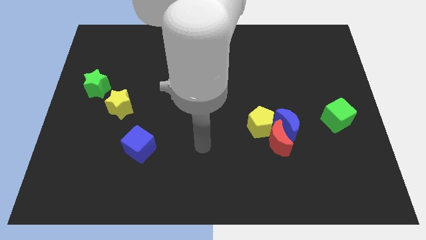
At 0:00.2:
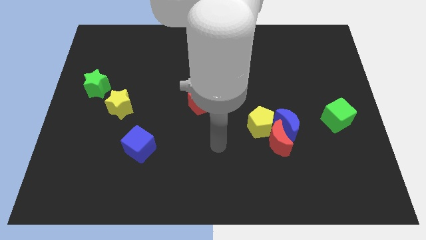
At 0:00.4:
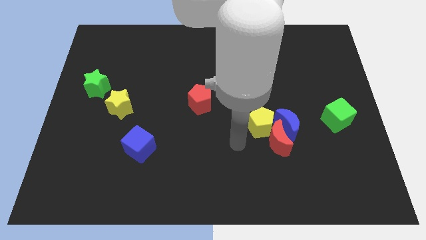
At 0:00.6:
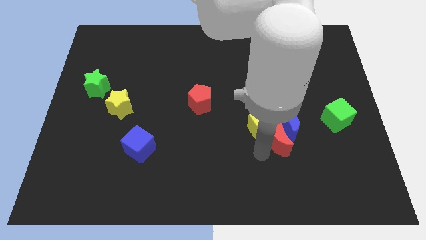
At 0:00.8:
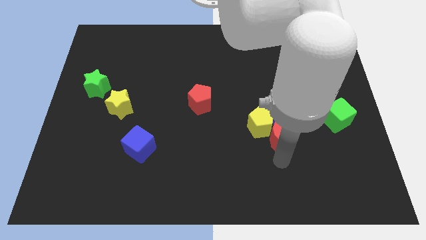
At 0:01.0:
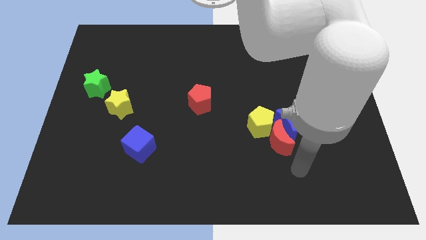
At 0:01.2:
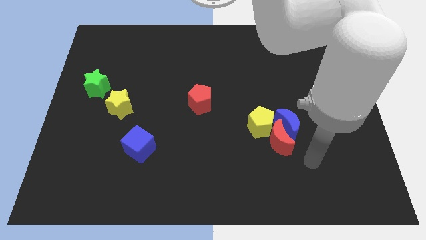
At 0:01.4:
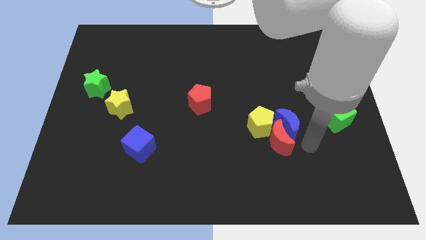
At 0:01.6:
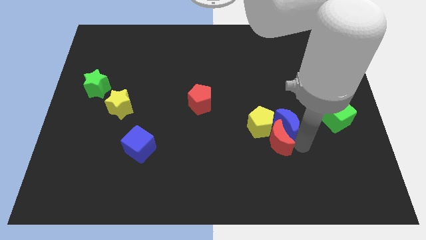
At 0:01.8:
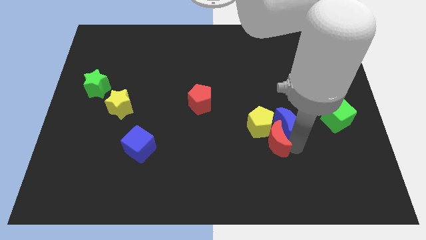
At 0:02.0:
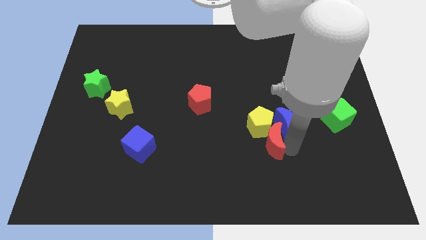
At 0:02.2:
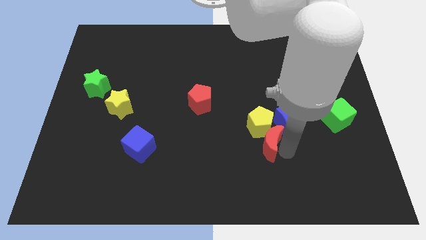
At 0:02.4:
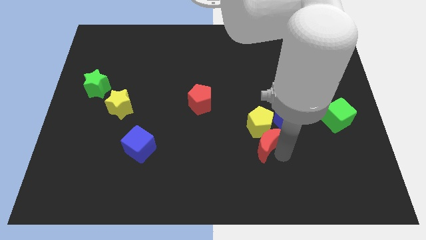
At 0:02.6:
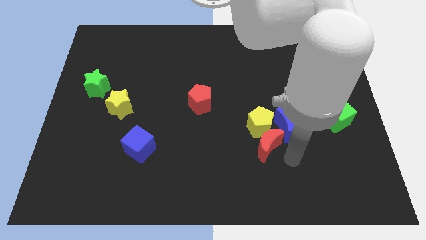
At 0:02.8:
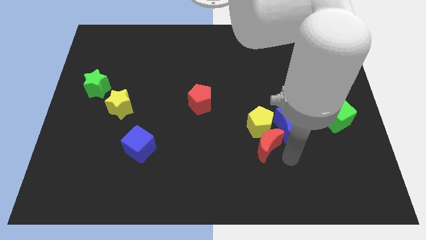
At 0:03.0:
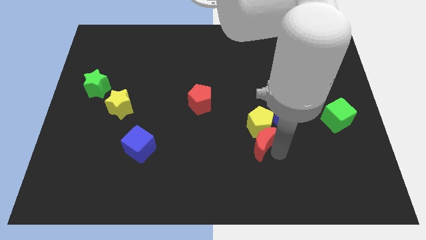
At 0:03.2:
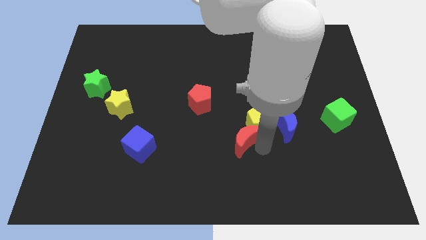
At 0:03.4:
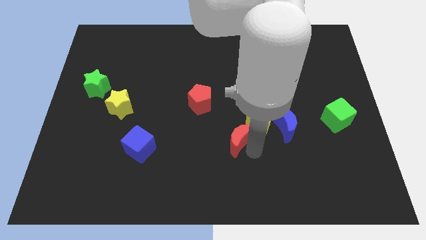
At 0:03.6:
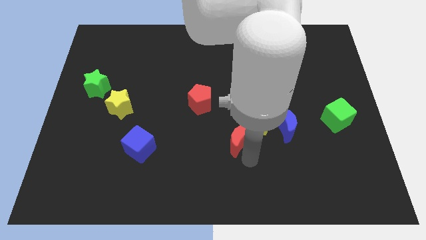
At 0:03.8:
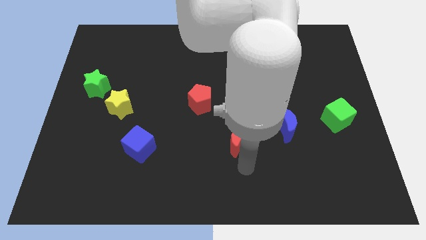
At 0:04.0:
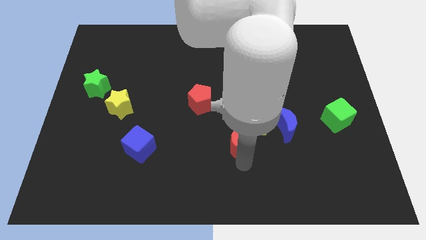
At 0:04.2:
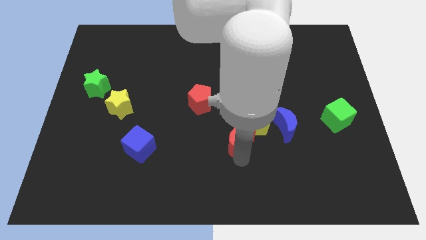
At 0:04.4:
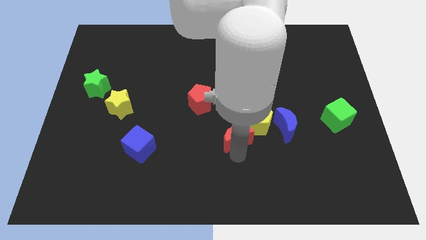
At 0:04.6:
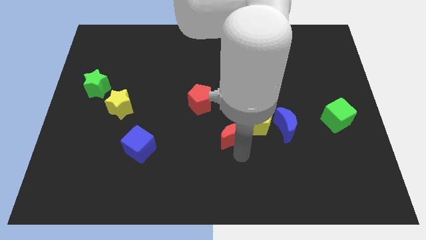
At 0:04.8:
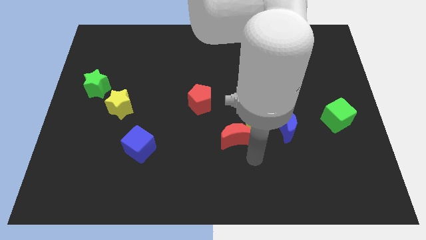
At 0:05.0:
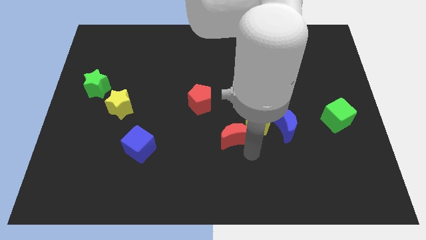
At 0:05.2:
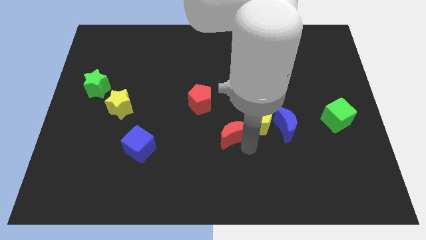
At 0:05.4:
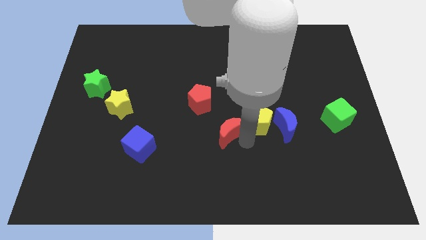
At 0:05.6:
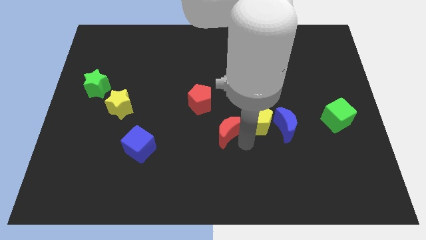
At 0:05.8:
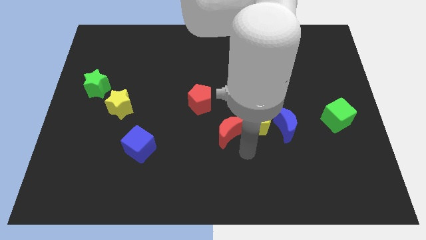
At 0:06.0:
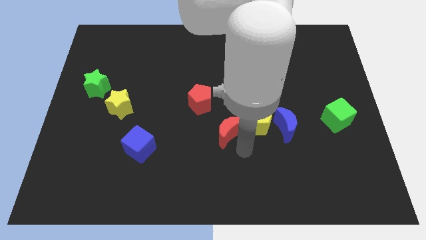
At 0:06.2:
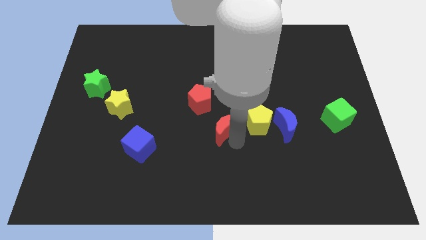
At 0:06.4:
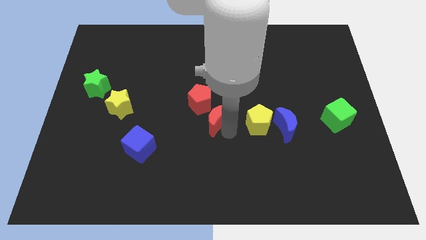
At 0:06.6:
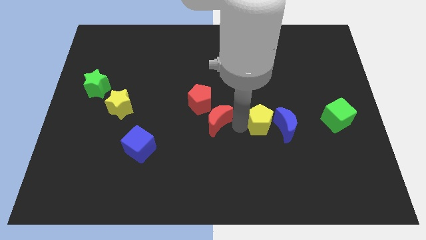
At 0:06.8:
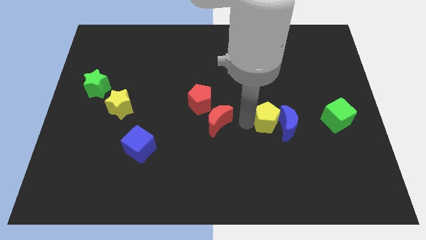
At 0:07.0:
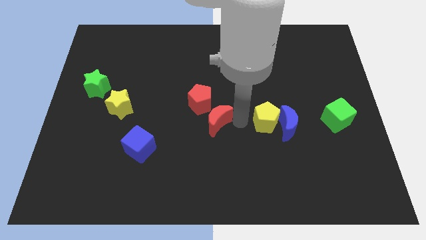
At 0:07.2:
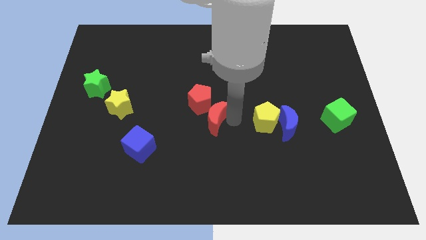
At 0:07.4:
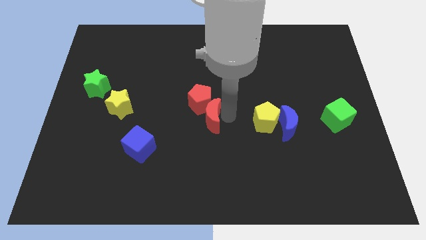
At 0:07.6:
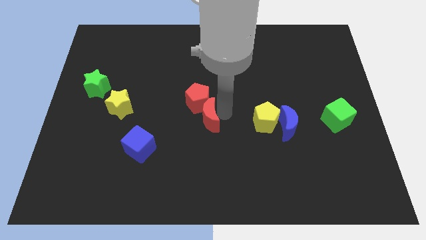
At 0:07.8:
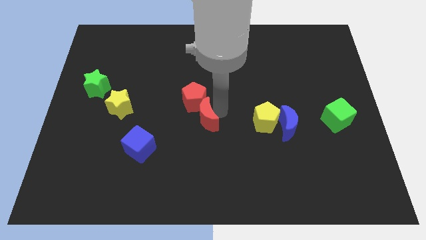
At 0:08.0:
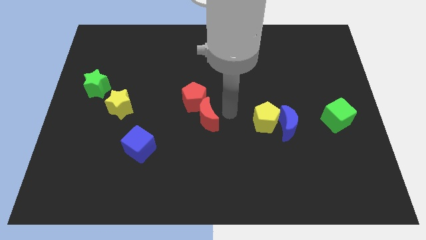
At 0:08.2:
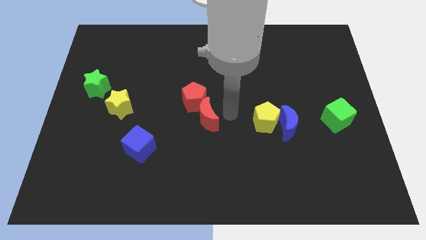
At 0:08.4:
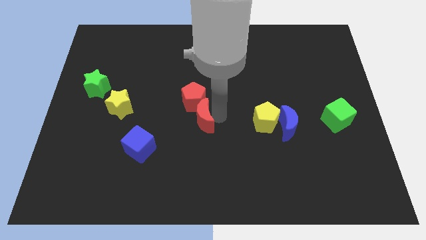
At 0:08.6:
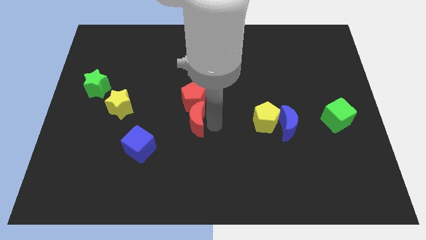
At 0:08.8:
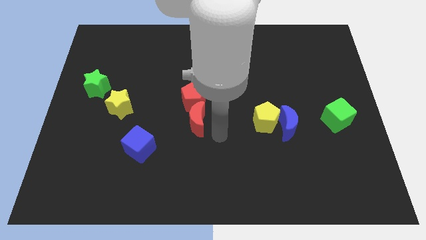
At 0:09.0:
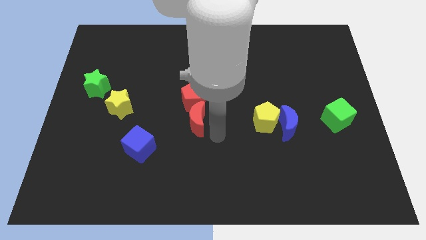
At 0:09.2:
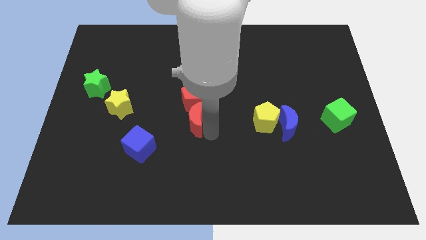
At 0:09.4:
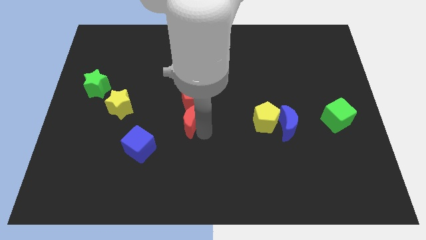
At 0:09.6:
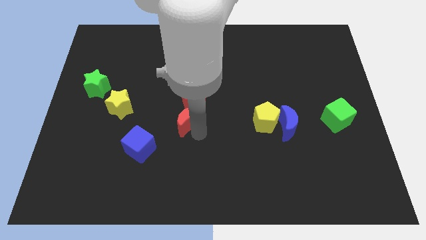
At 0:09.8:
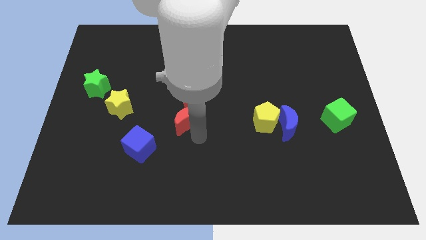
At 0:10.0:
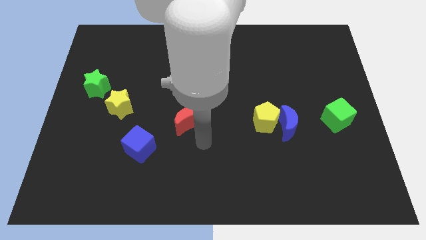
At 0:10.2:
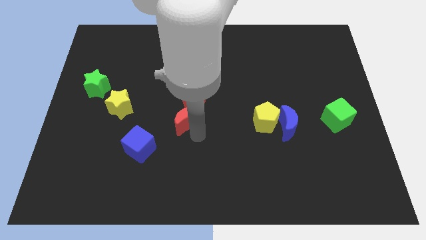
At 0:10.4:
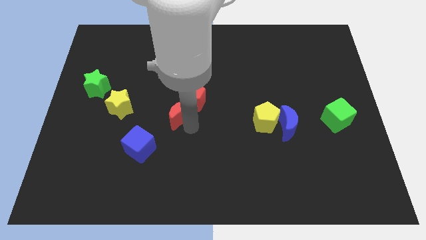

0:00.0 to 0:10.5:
move the red moon to the right of the yellow star
